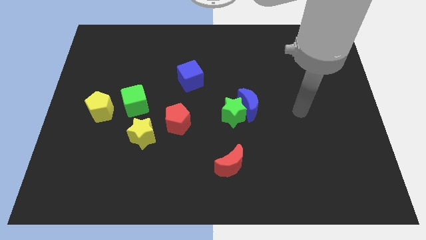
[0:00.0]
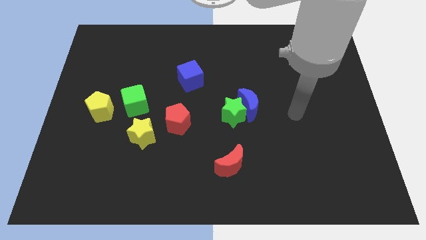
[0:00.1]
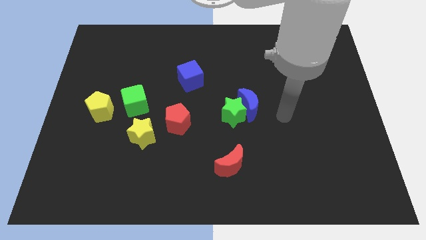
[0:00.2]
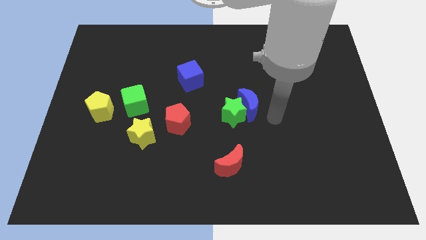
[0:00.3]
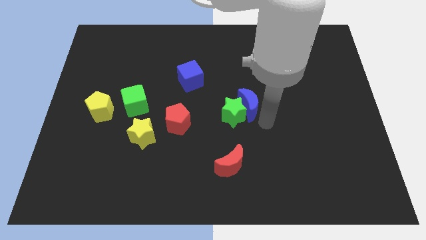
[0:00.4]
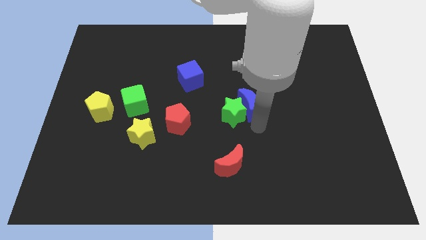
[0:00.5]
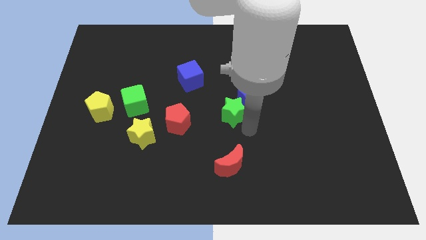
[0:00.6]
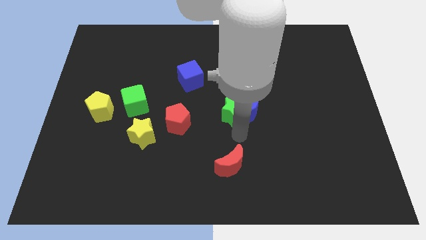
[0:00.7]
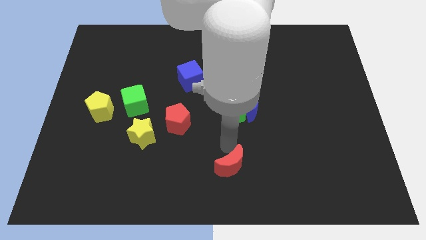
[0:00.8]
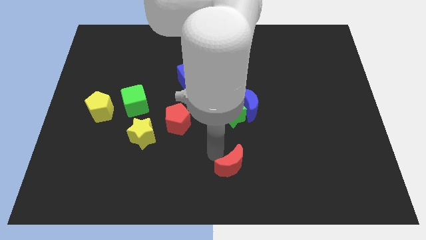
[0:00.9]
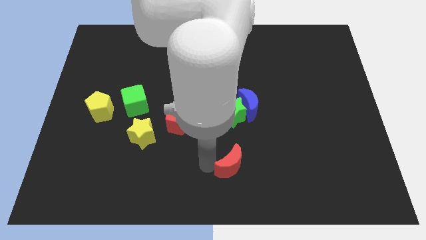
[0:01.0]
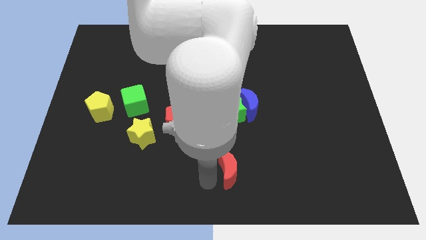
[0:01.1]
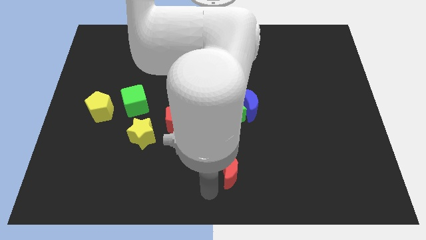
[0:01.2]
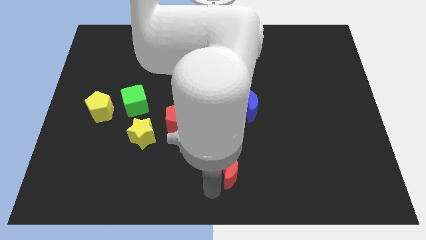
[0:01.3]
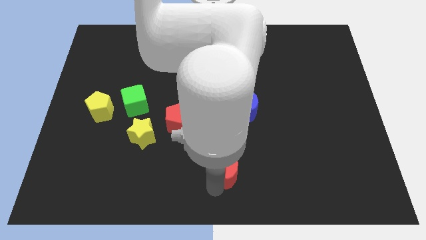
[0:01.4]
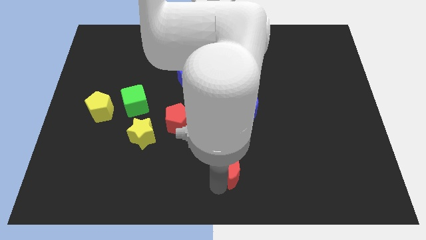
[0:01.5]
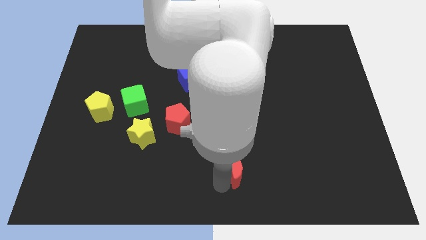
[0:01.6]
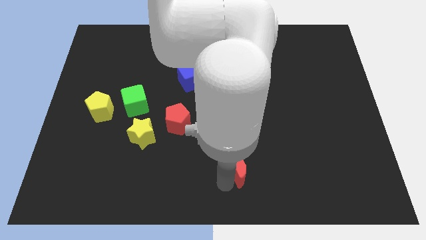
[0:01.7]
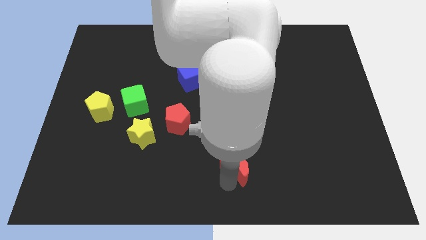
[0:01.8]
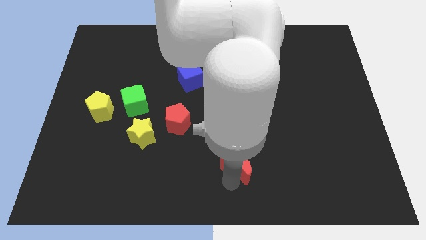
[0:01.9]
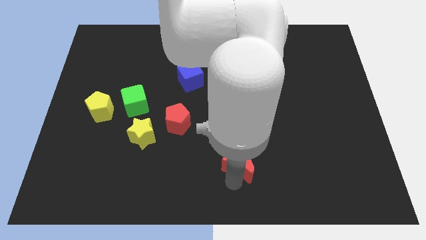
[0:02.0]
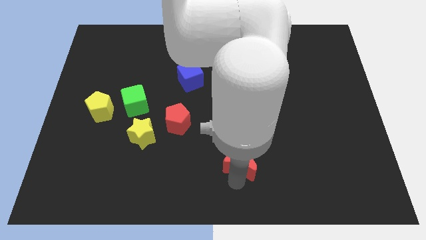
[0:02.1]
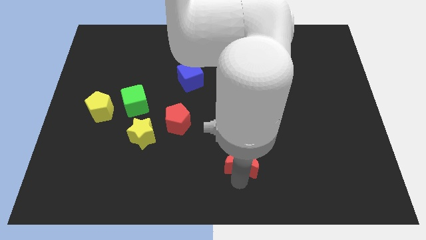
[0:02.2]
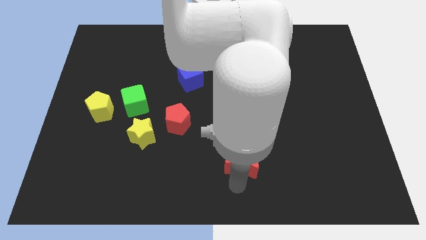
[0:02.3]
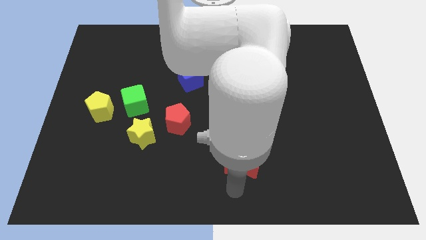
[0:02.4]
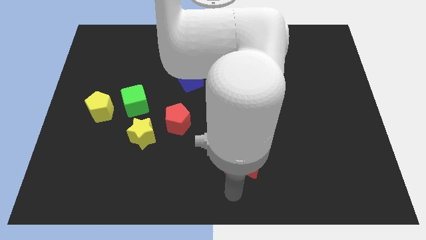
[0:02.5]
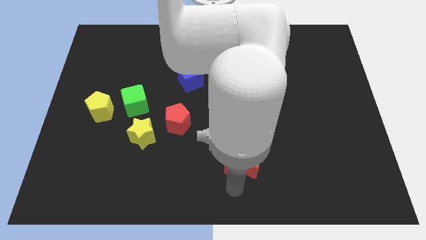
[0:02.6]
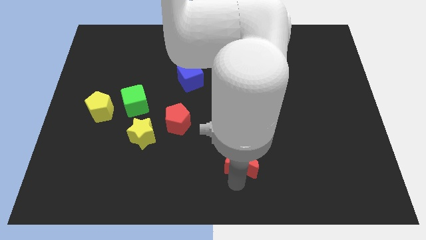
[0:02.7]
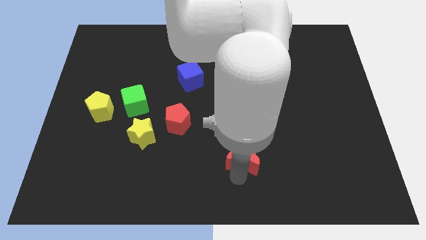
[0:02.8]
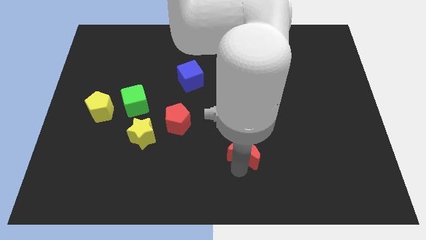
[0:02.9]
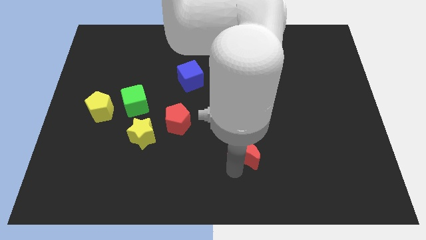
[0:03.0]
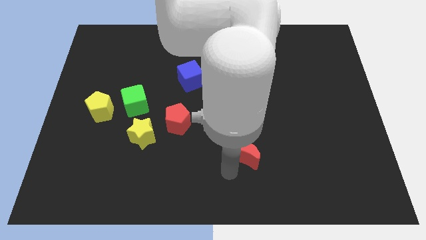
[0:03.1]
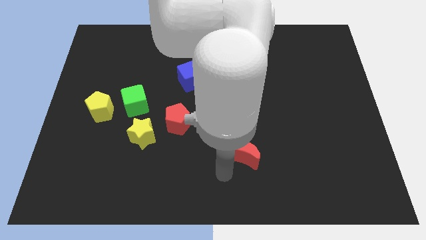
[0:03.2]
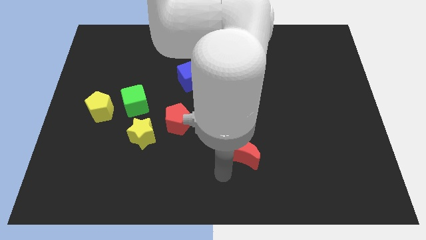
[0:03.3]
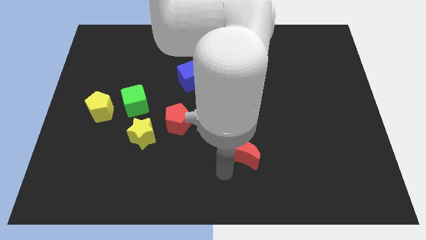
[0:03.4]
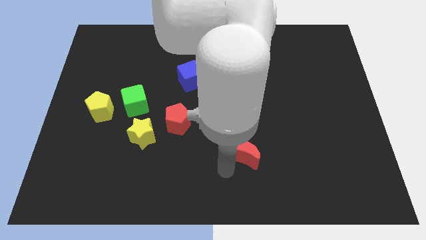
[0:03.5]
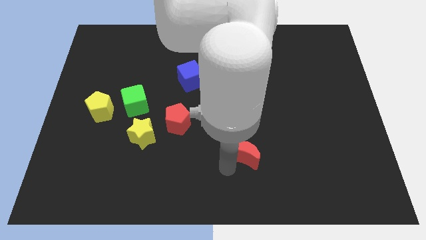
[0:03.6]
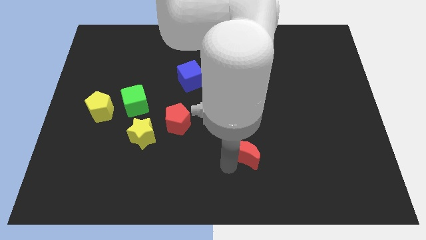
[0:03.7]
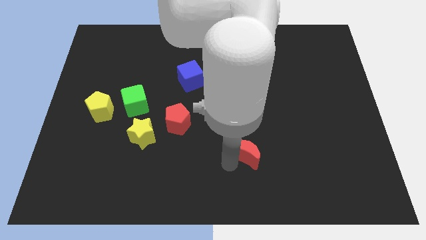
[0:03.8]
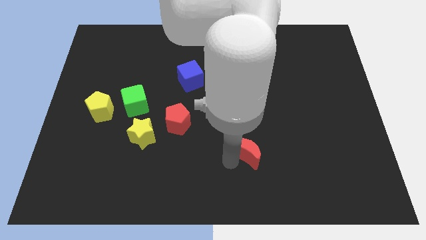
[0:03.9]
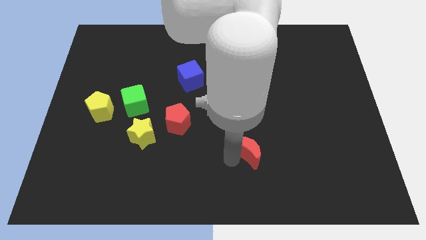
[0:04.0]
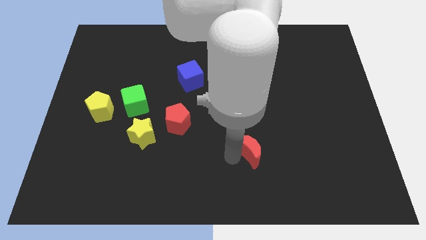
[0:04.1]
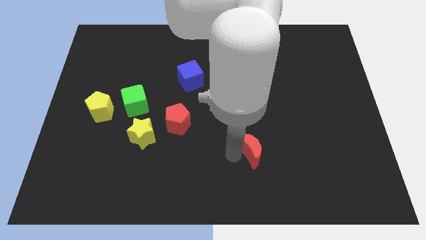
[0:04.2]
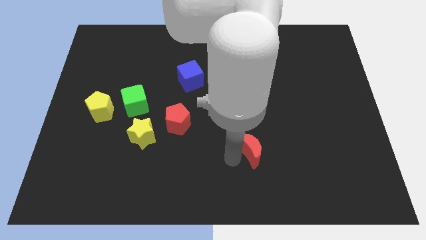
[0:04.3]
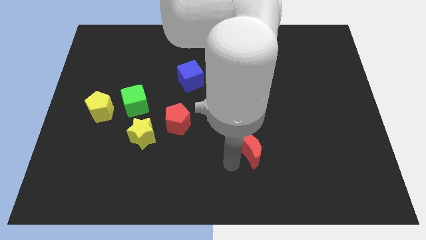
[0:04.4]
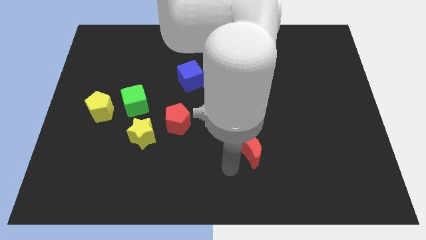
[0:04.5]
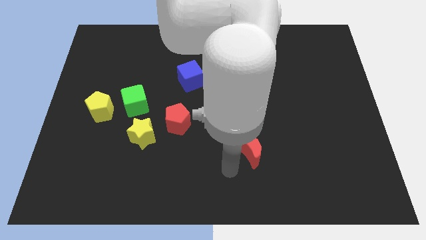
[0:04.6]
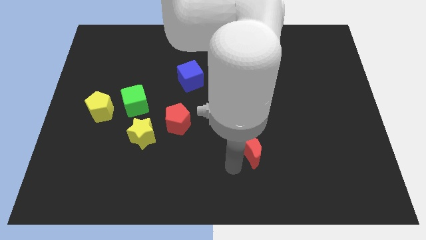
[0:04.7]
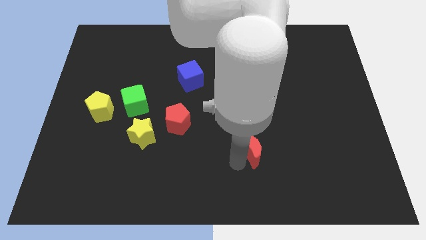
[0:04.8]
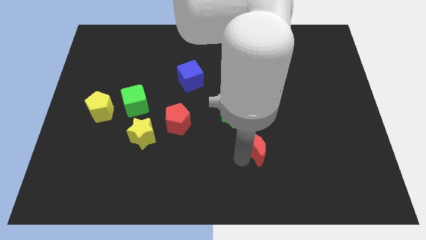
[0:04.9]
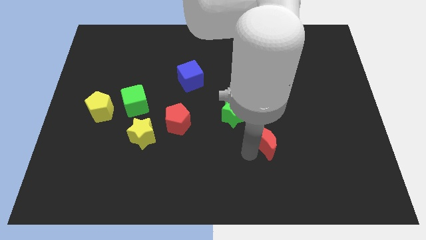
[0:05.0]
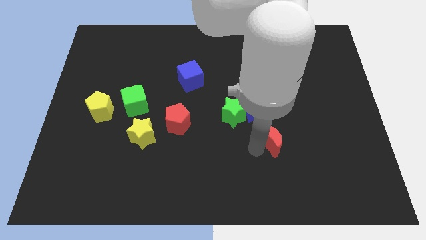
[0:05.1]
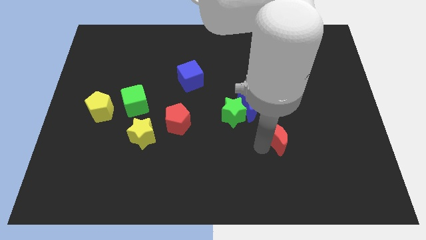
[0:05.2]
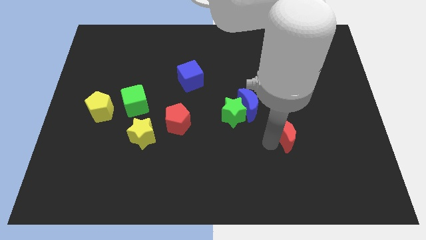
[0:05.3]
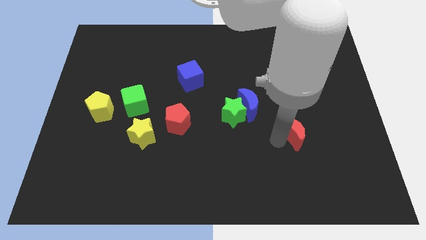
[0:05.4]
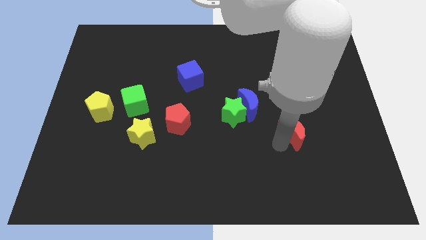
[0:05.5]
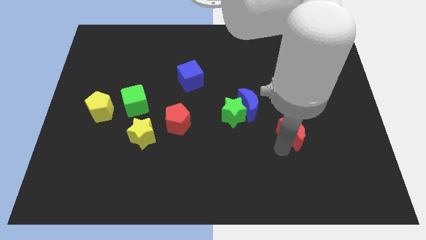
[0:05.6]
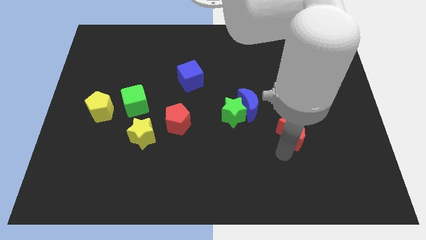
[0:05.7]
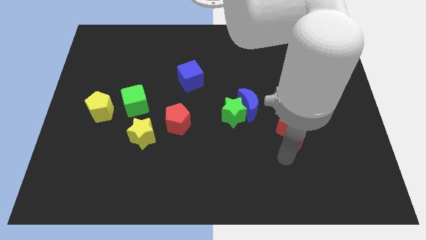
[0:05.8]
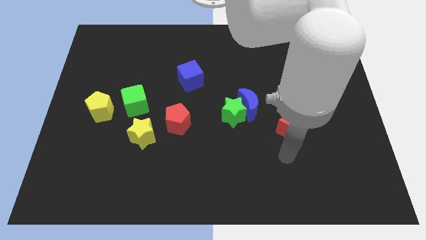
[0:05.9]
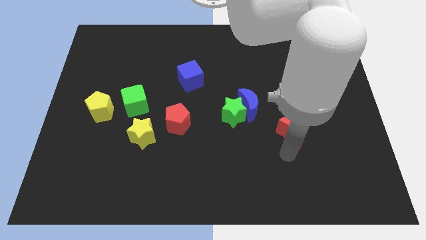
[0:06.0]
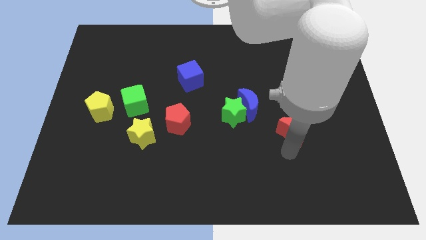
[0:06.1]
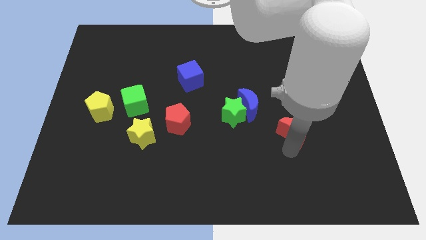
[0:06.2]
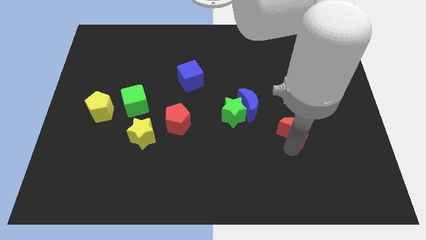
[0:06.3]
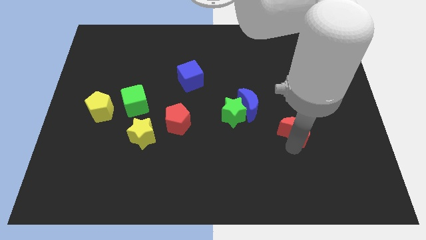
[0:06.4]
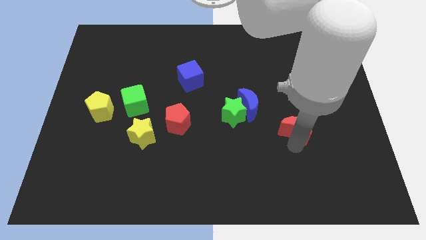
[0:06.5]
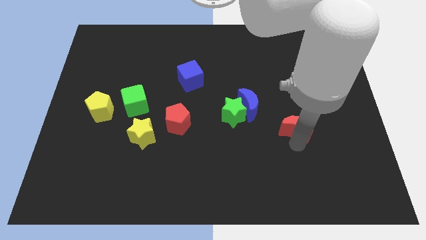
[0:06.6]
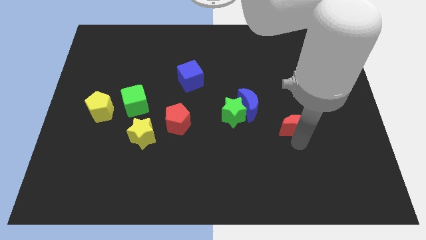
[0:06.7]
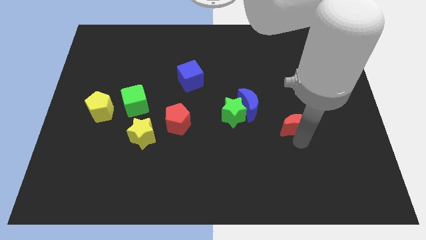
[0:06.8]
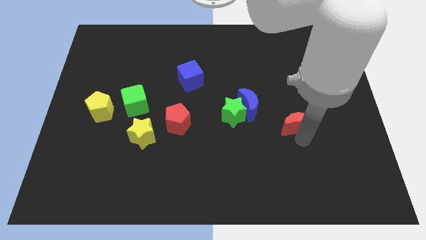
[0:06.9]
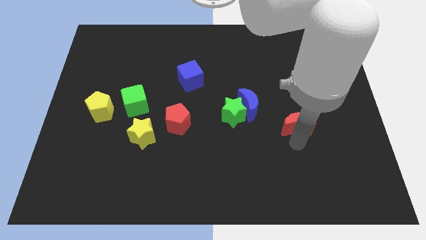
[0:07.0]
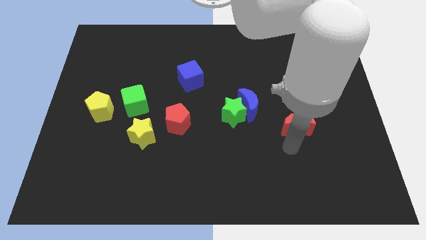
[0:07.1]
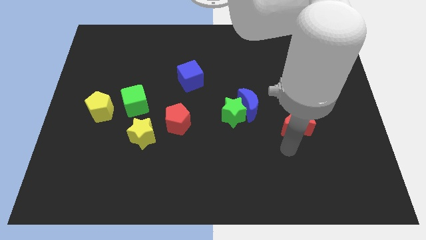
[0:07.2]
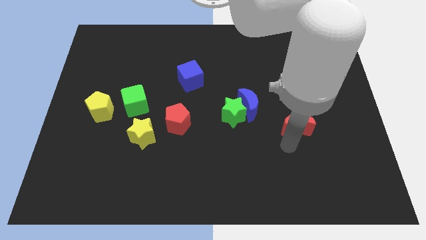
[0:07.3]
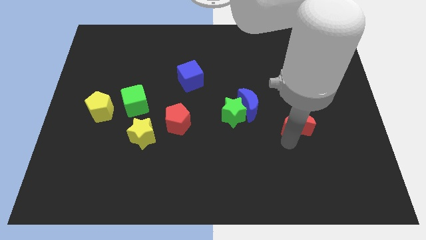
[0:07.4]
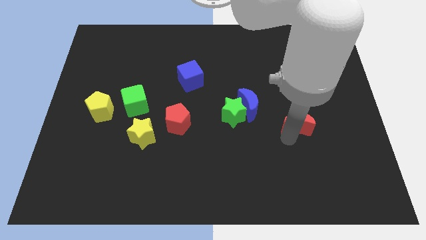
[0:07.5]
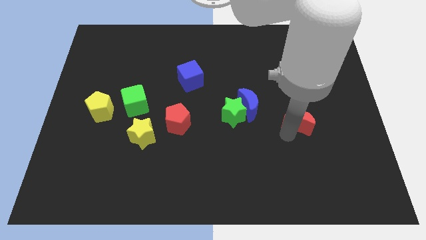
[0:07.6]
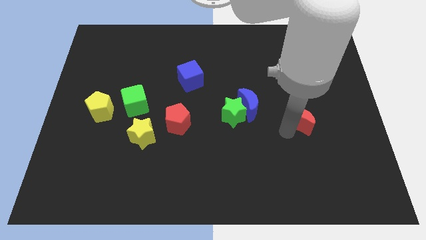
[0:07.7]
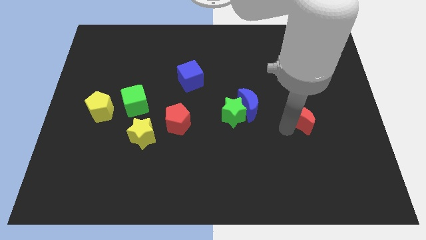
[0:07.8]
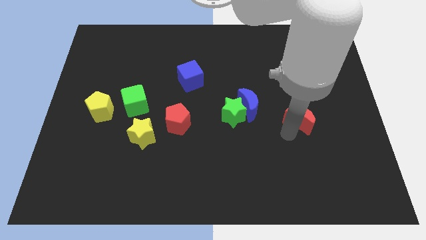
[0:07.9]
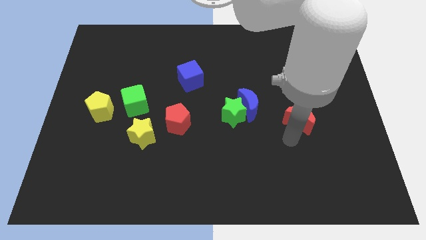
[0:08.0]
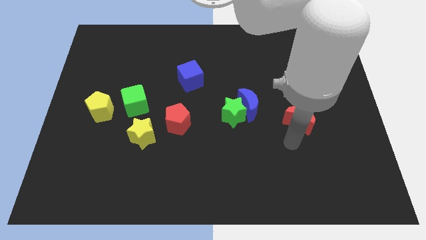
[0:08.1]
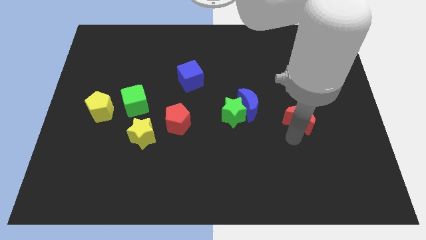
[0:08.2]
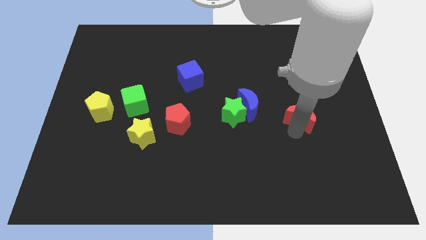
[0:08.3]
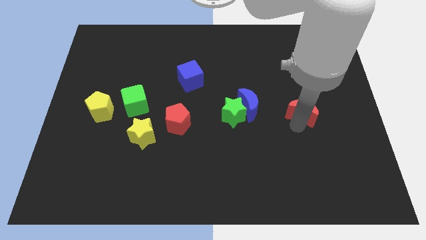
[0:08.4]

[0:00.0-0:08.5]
move the red moon up and to the right
